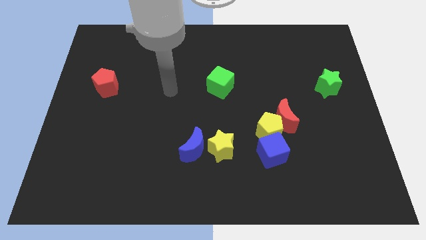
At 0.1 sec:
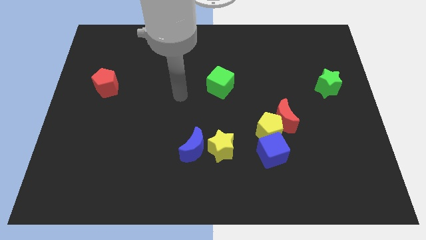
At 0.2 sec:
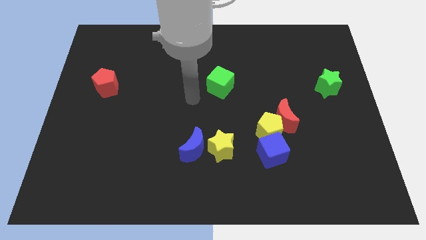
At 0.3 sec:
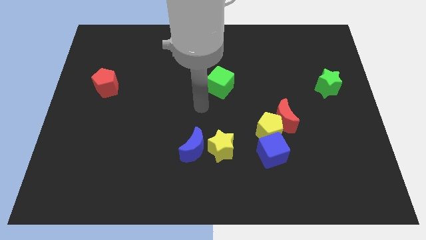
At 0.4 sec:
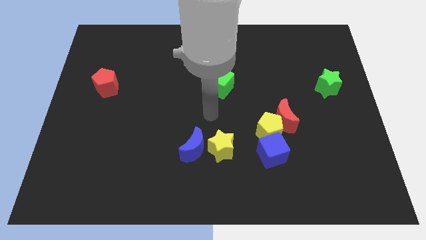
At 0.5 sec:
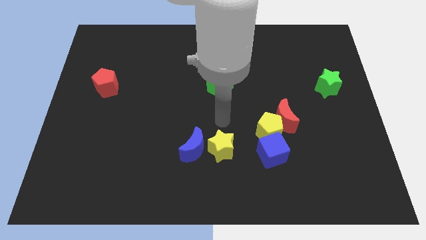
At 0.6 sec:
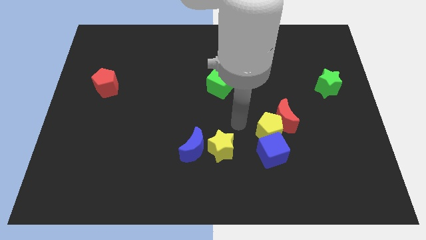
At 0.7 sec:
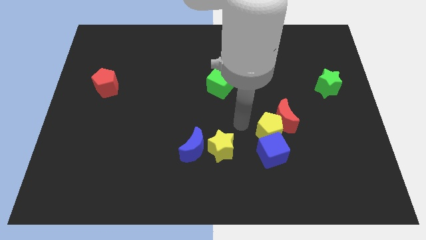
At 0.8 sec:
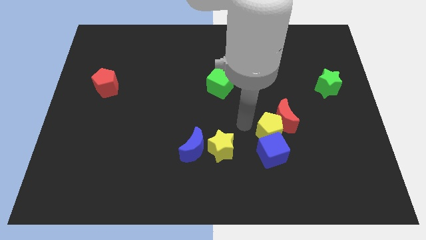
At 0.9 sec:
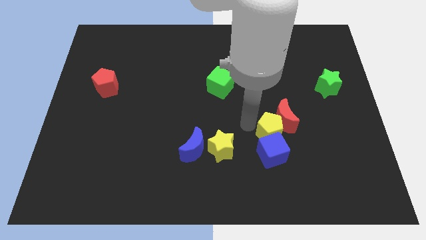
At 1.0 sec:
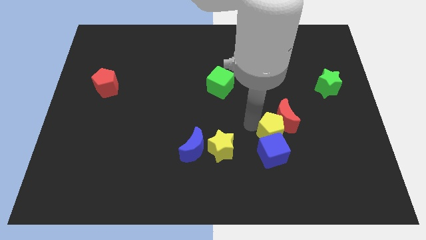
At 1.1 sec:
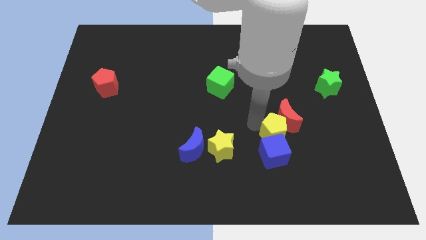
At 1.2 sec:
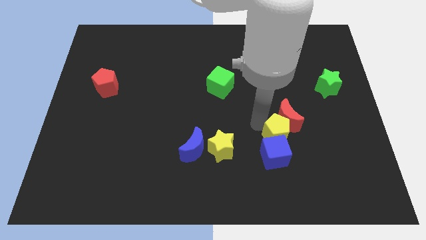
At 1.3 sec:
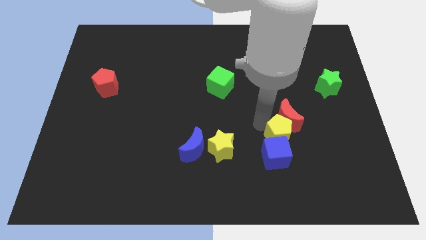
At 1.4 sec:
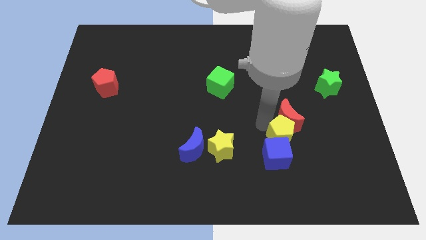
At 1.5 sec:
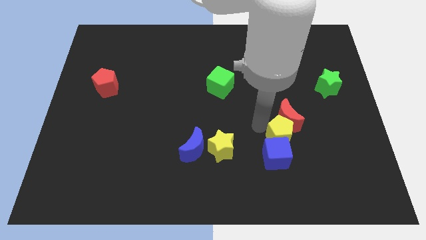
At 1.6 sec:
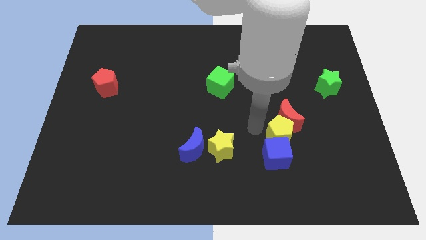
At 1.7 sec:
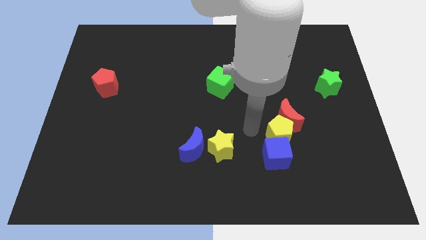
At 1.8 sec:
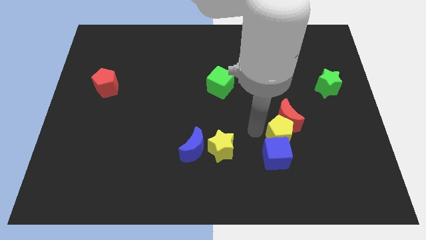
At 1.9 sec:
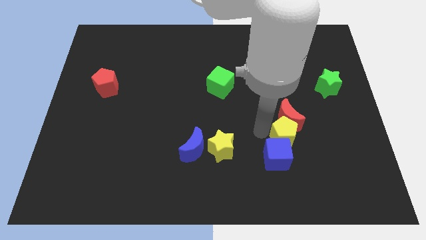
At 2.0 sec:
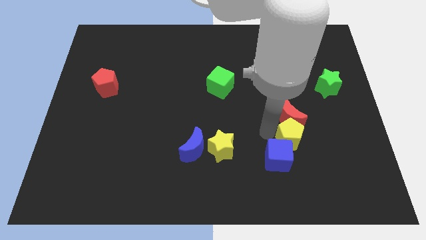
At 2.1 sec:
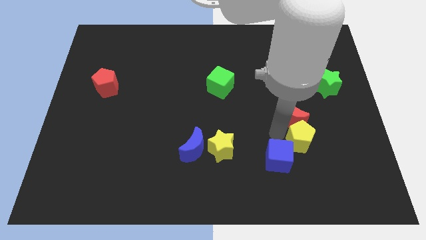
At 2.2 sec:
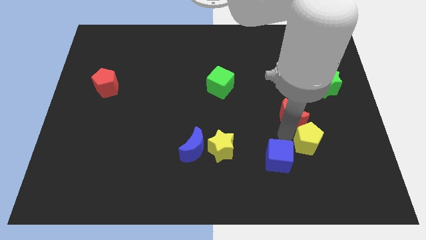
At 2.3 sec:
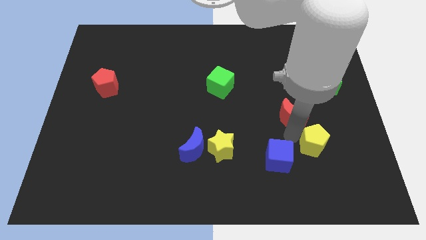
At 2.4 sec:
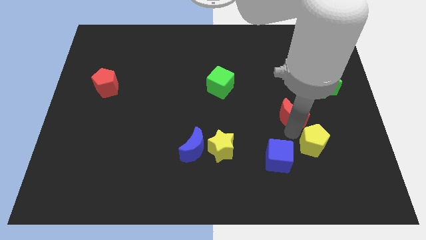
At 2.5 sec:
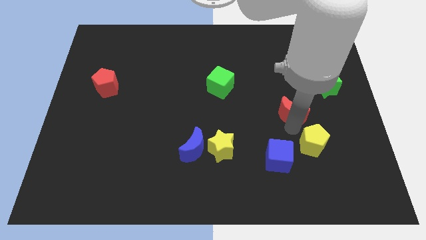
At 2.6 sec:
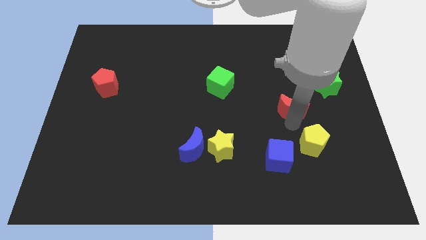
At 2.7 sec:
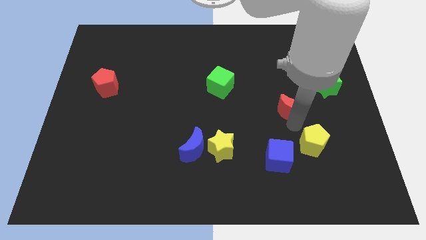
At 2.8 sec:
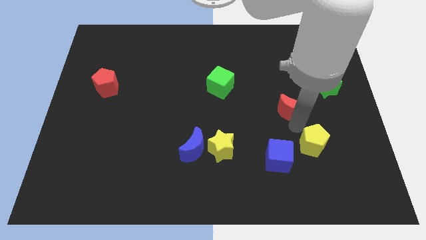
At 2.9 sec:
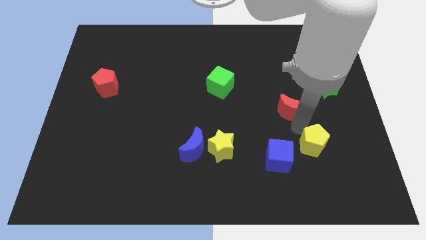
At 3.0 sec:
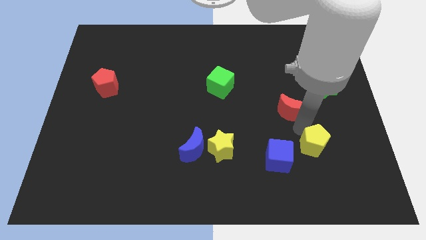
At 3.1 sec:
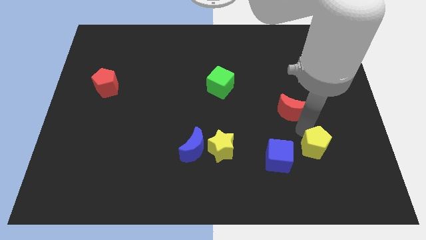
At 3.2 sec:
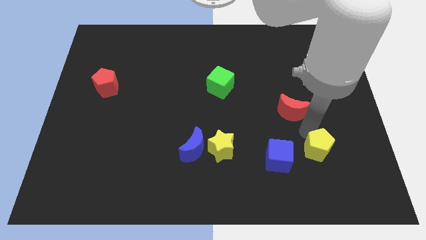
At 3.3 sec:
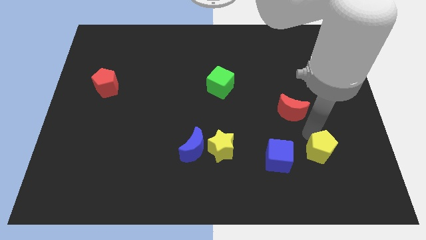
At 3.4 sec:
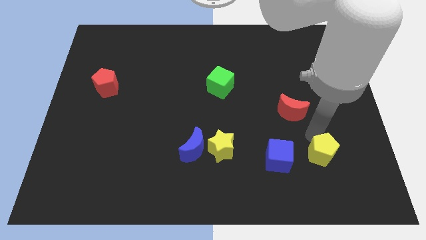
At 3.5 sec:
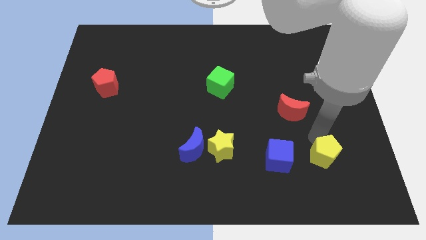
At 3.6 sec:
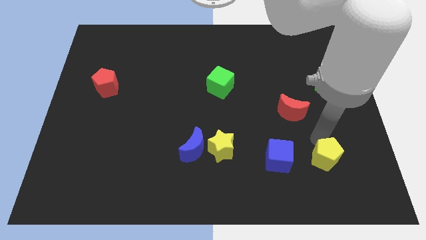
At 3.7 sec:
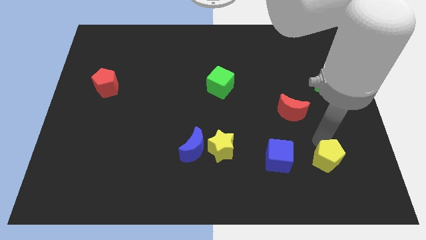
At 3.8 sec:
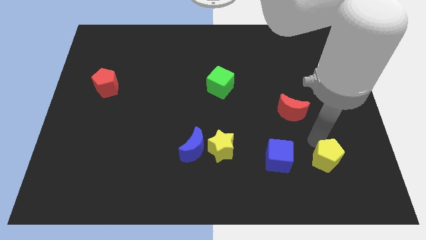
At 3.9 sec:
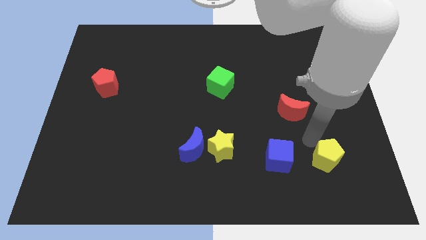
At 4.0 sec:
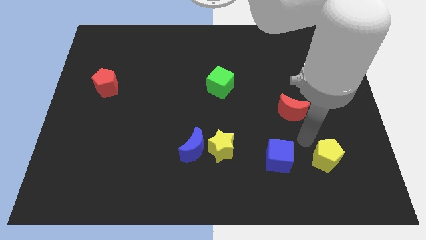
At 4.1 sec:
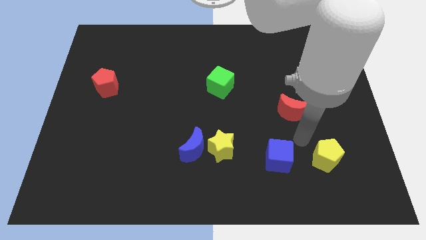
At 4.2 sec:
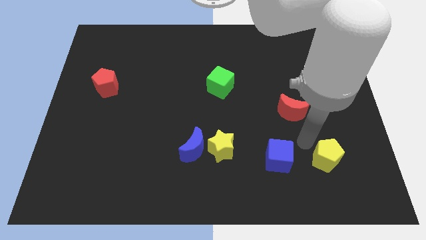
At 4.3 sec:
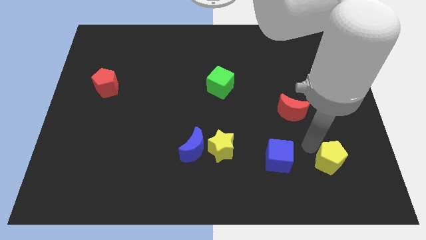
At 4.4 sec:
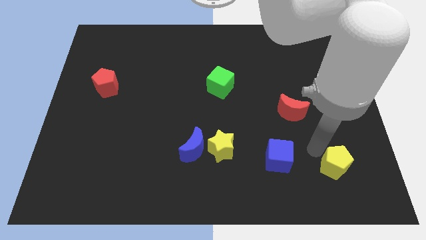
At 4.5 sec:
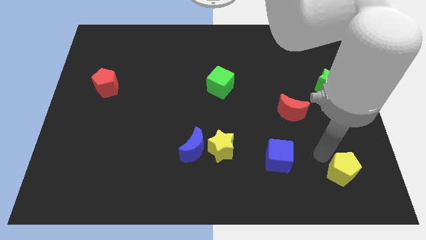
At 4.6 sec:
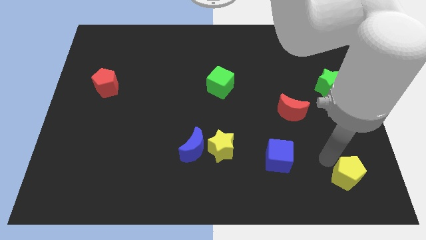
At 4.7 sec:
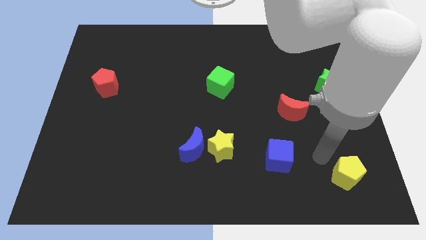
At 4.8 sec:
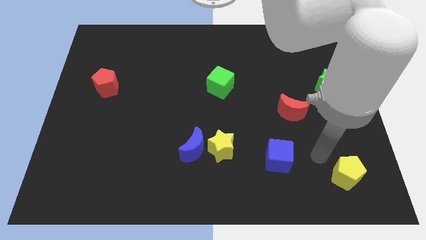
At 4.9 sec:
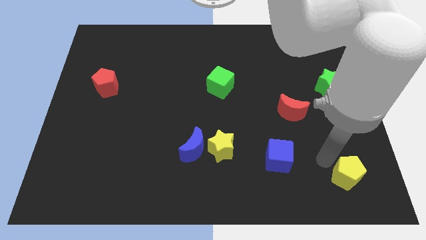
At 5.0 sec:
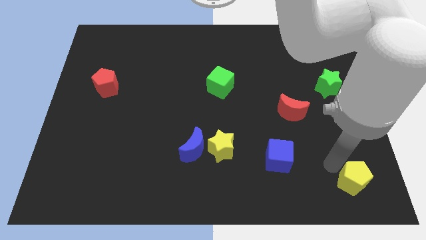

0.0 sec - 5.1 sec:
put the yellow pentagon to the bottom right
